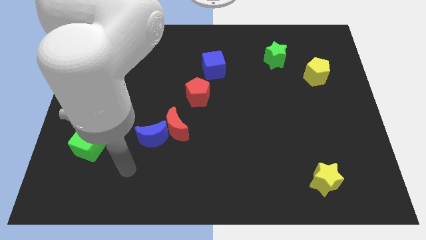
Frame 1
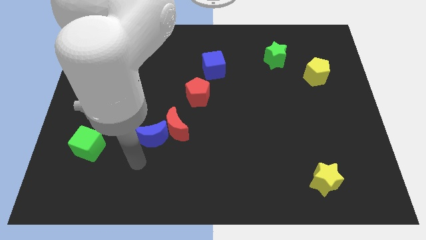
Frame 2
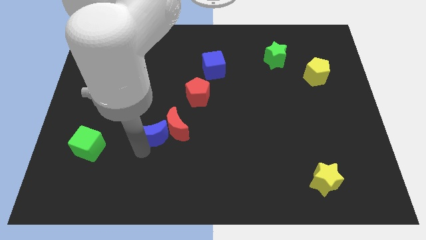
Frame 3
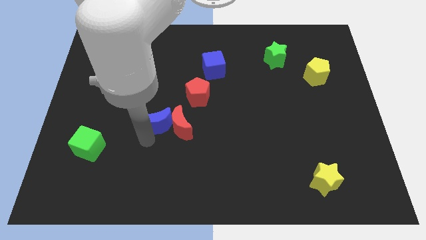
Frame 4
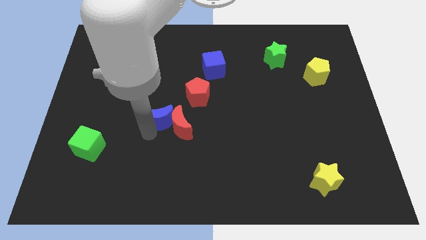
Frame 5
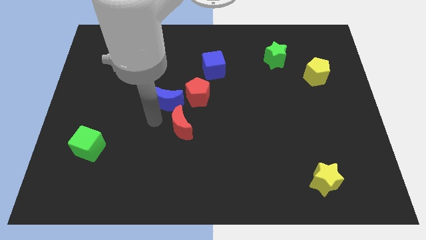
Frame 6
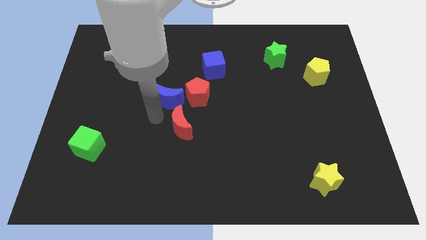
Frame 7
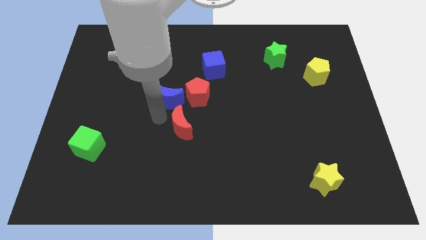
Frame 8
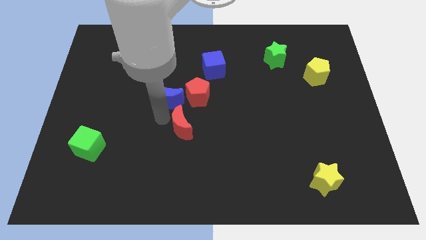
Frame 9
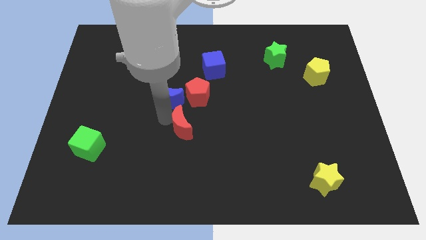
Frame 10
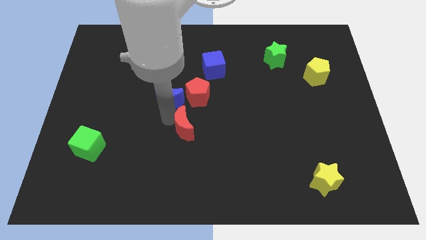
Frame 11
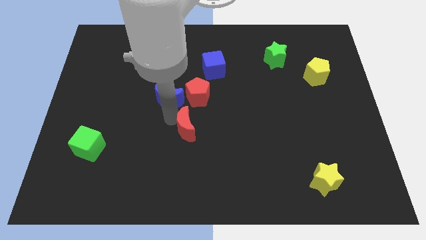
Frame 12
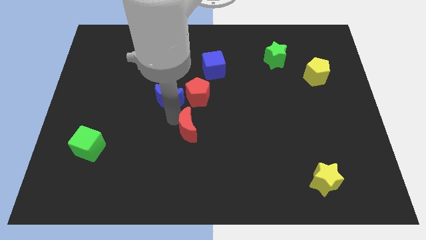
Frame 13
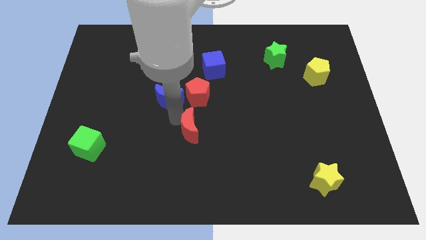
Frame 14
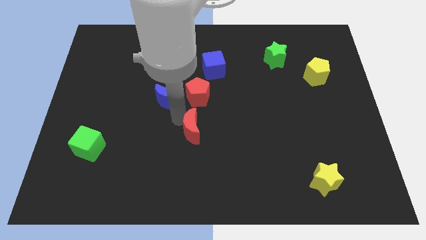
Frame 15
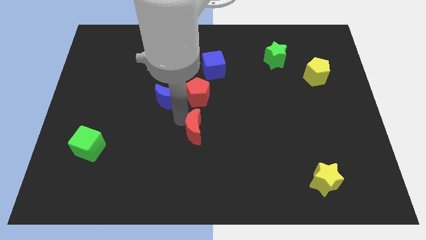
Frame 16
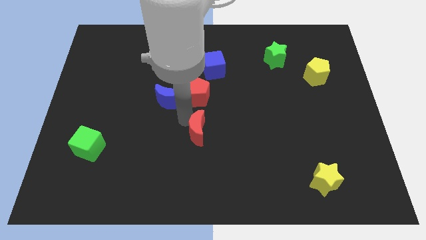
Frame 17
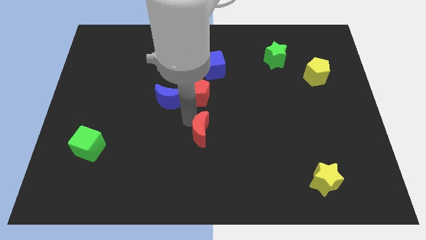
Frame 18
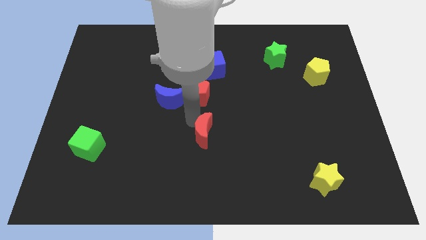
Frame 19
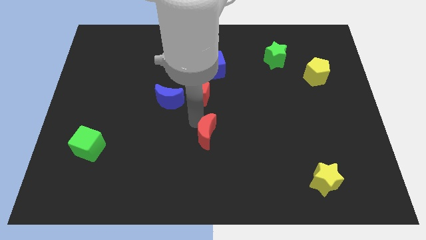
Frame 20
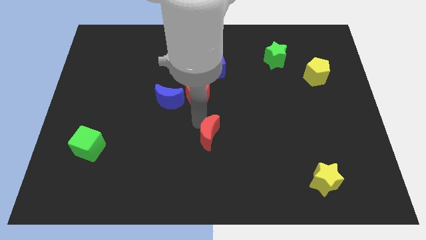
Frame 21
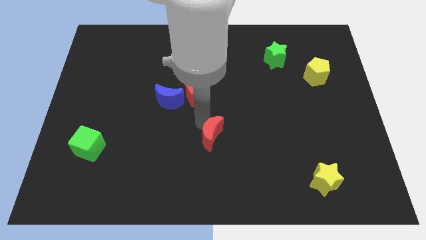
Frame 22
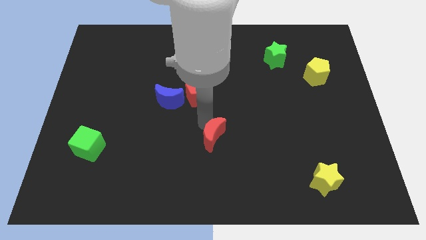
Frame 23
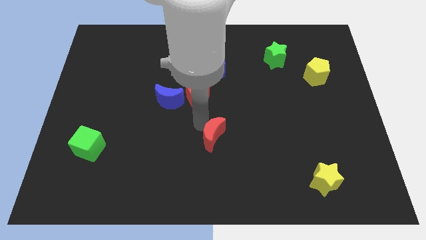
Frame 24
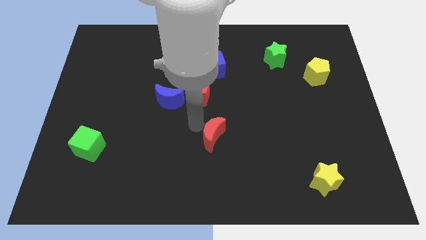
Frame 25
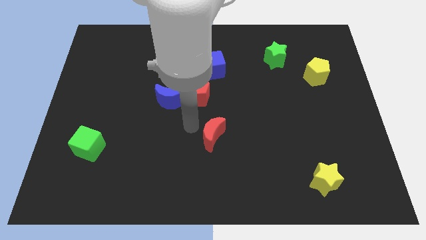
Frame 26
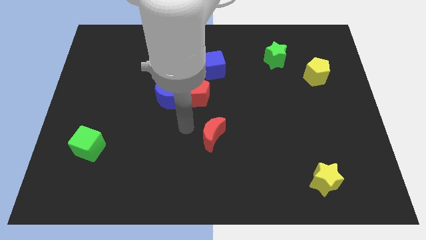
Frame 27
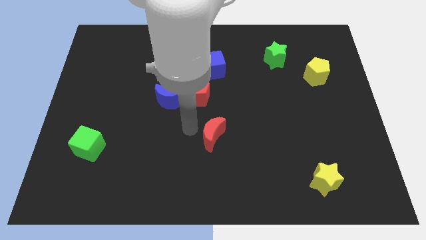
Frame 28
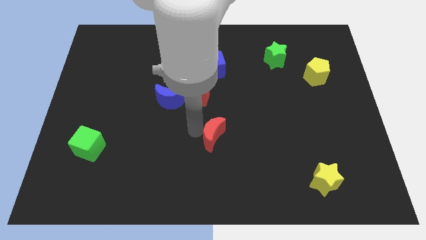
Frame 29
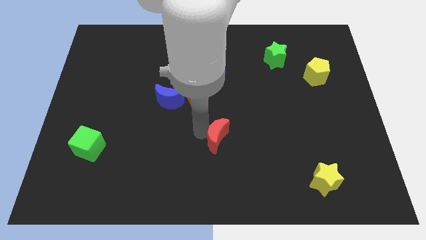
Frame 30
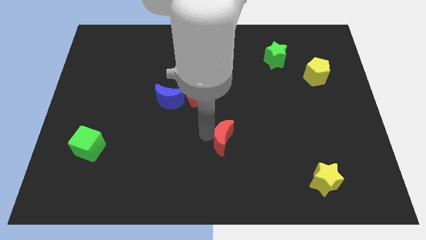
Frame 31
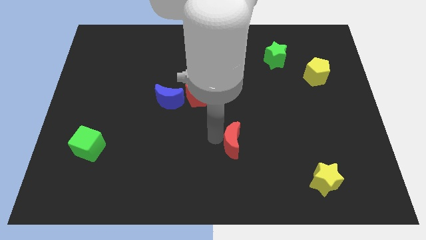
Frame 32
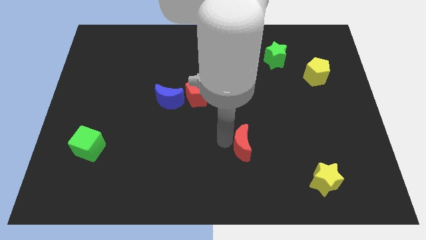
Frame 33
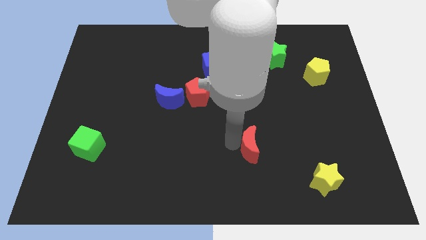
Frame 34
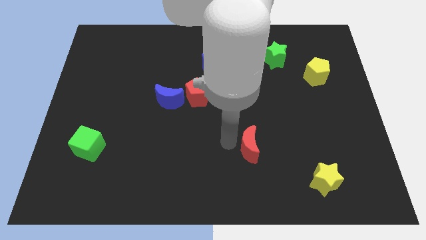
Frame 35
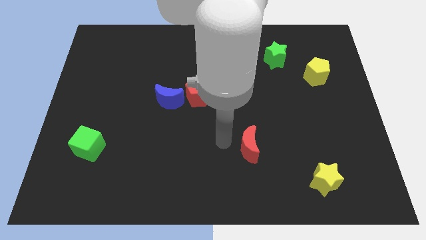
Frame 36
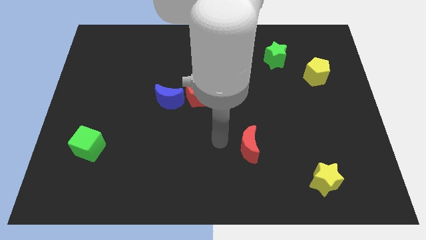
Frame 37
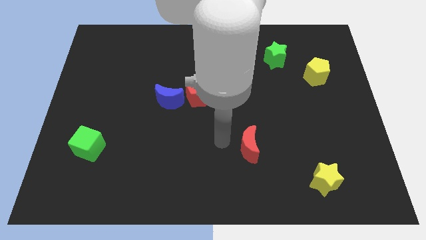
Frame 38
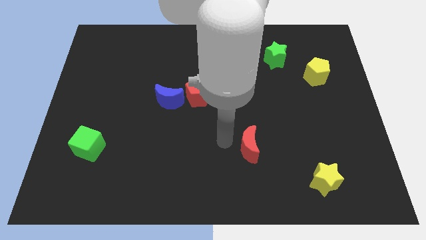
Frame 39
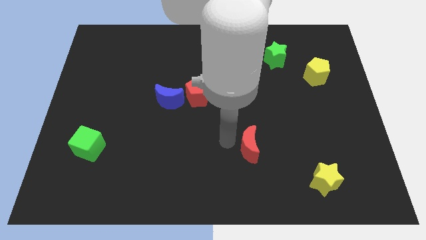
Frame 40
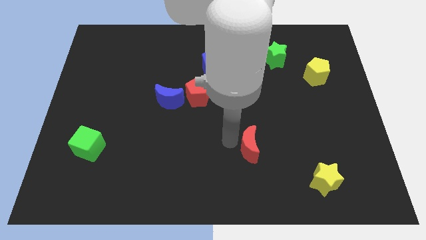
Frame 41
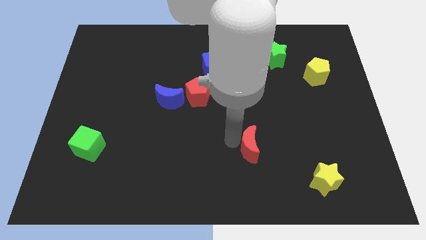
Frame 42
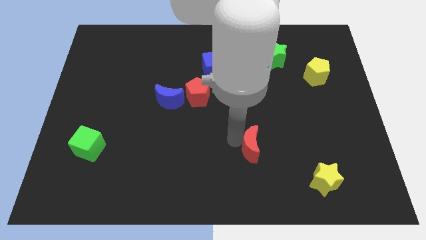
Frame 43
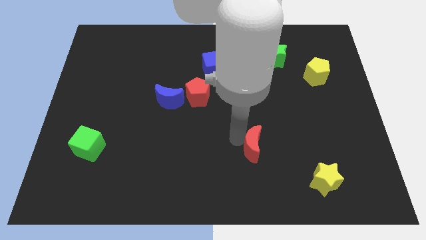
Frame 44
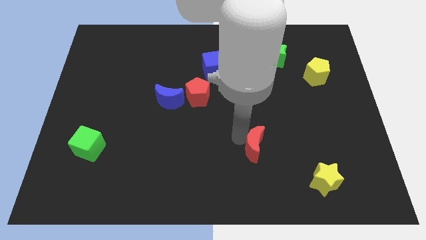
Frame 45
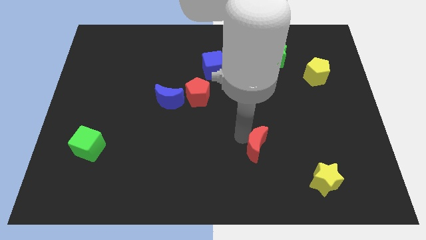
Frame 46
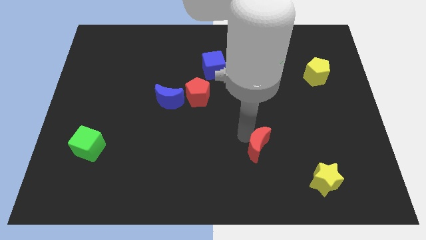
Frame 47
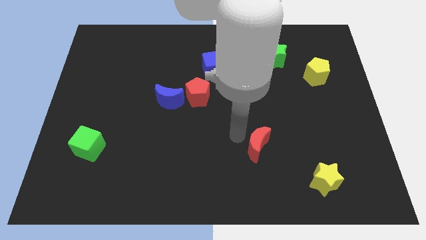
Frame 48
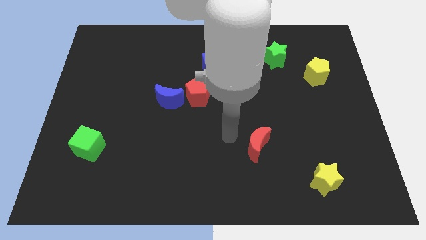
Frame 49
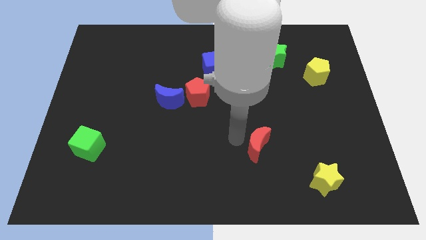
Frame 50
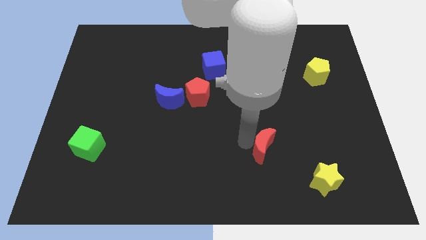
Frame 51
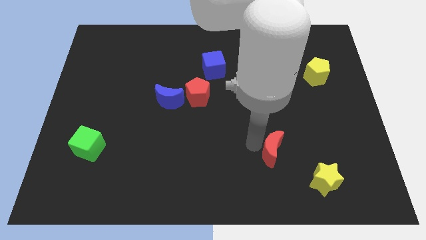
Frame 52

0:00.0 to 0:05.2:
slide the red moon diagonally up and to the left of the yellow star

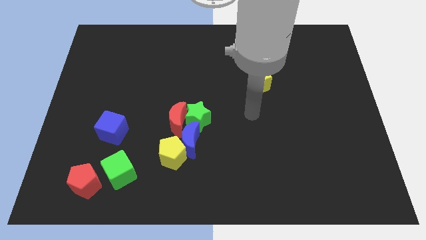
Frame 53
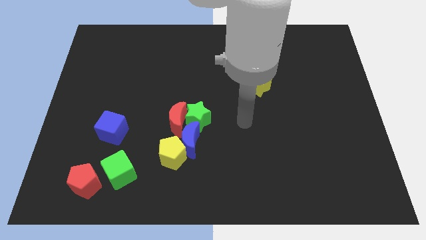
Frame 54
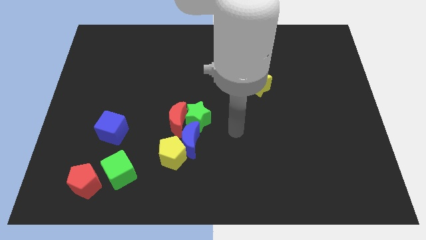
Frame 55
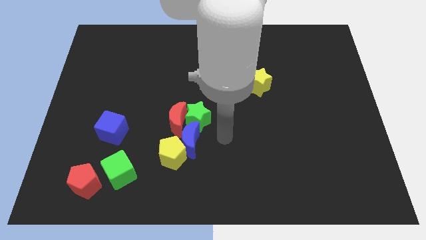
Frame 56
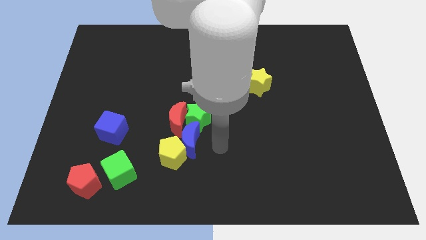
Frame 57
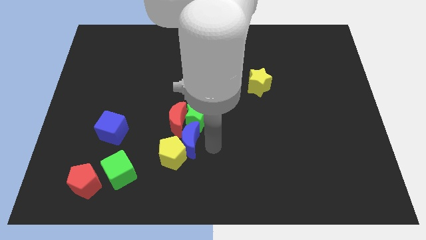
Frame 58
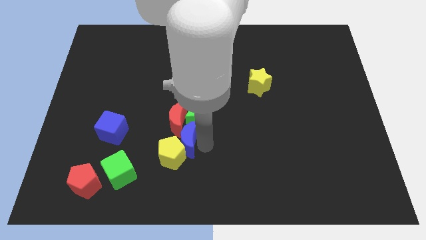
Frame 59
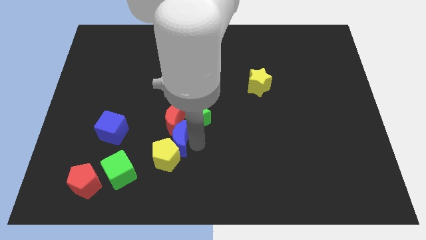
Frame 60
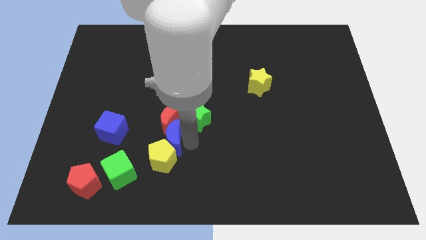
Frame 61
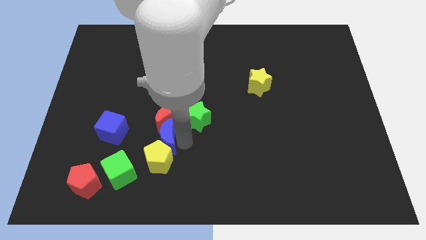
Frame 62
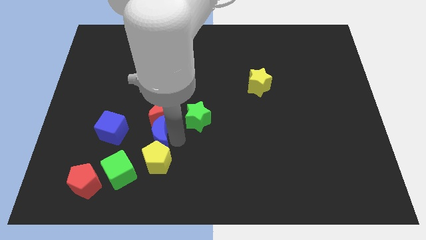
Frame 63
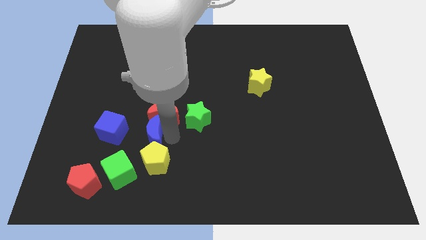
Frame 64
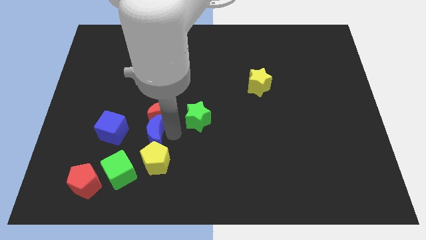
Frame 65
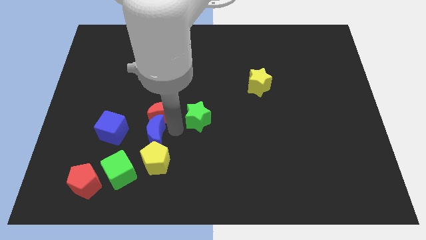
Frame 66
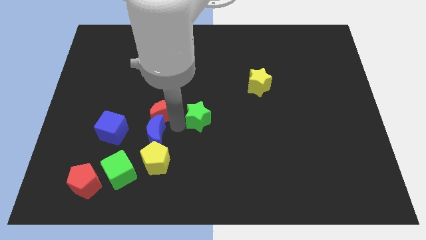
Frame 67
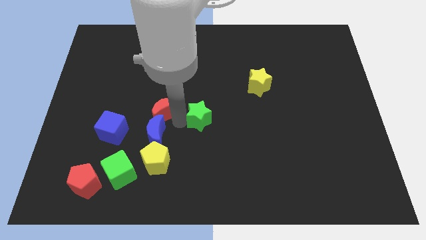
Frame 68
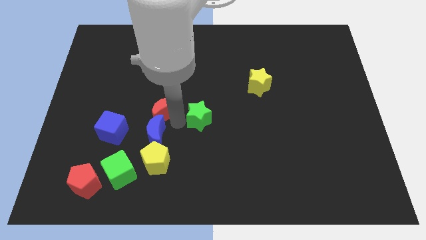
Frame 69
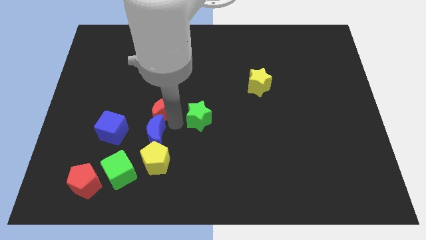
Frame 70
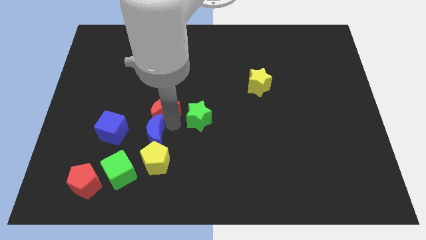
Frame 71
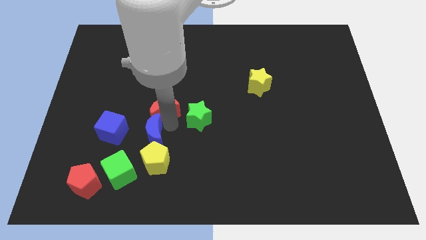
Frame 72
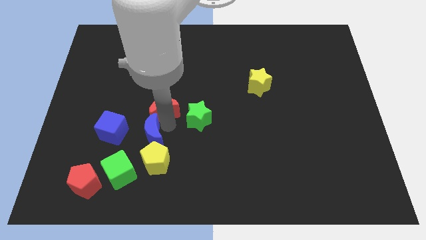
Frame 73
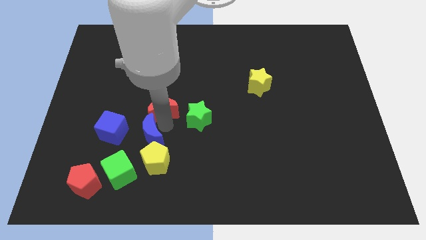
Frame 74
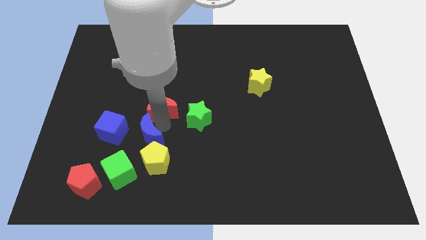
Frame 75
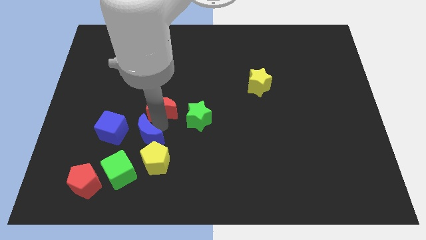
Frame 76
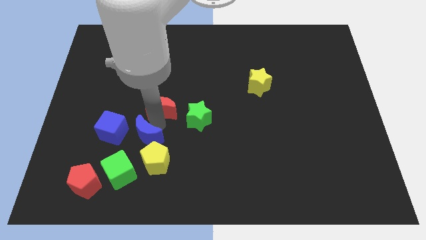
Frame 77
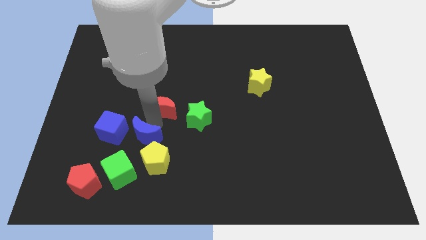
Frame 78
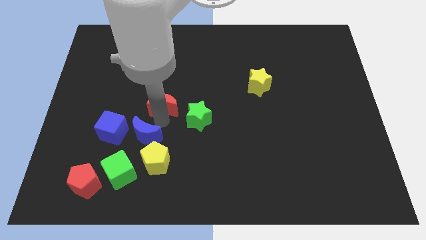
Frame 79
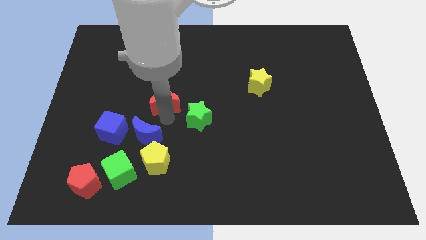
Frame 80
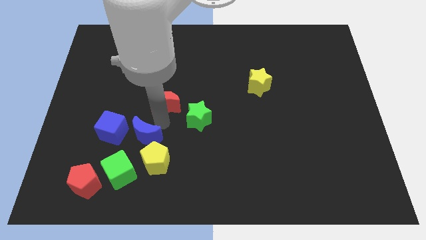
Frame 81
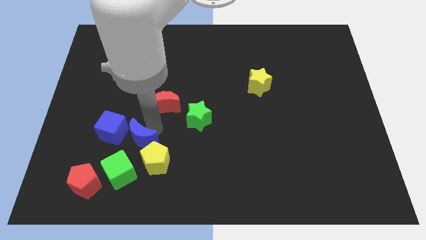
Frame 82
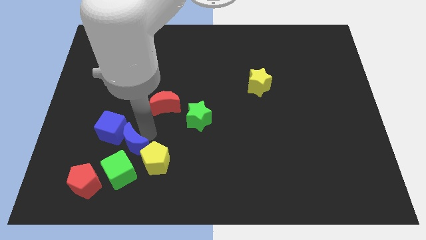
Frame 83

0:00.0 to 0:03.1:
put the blue moon to the top right of the red pentagon
